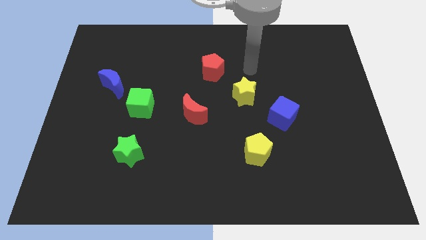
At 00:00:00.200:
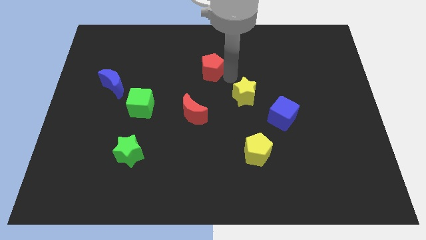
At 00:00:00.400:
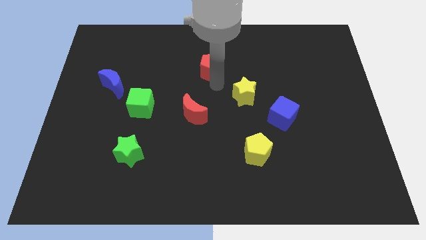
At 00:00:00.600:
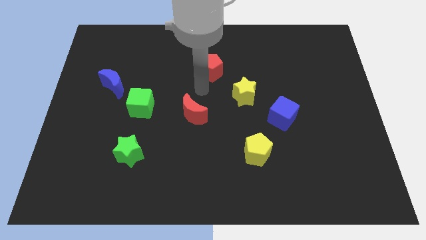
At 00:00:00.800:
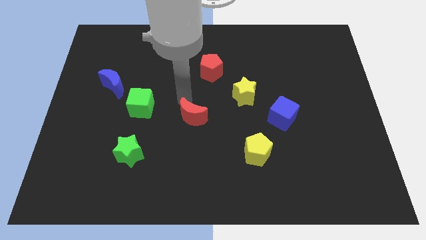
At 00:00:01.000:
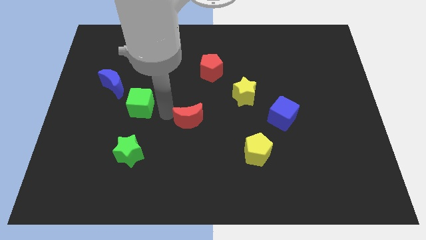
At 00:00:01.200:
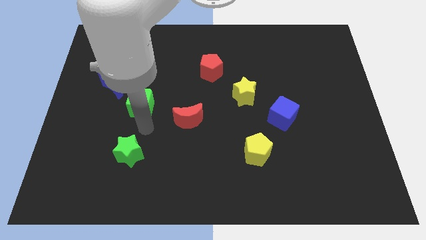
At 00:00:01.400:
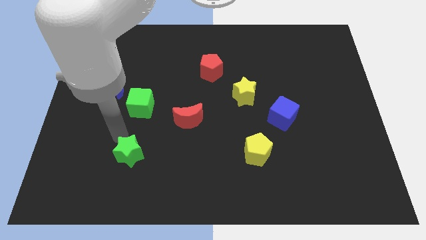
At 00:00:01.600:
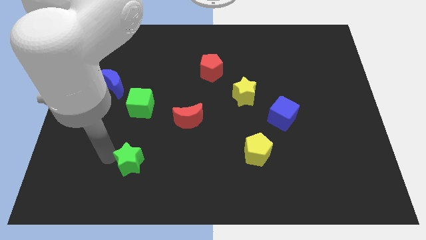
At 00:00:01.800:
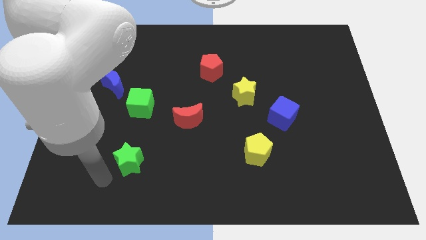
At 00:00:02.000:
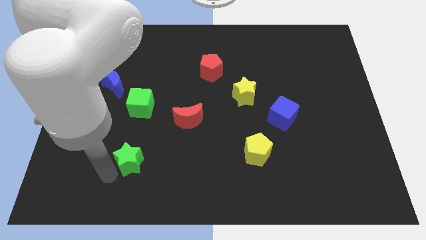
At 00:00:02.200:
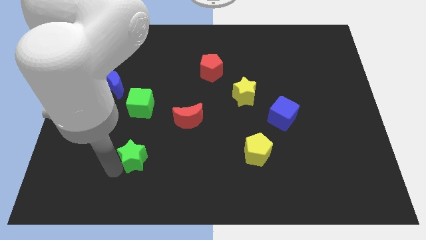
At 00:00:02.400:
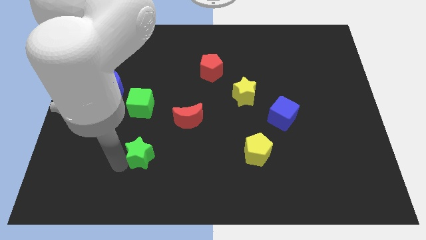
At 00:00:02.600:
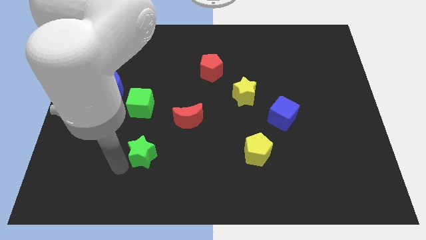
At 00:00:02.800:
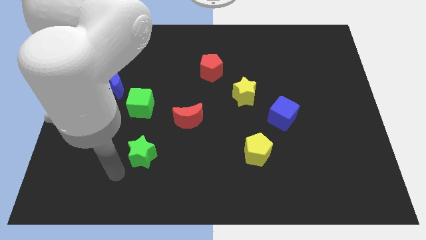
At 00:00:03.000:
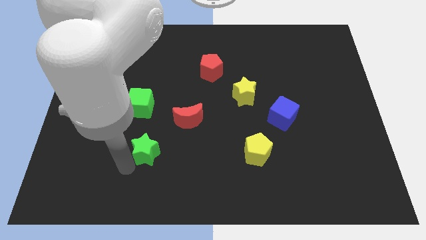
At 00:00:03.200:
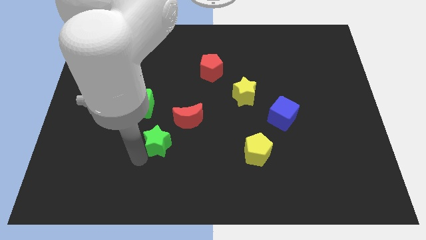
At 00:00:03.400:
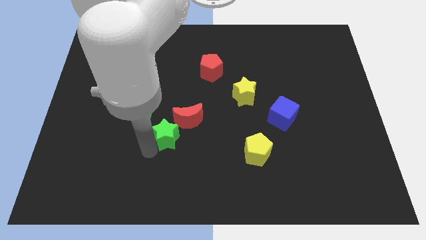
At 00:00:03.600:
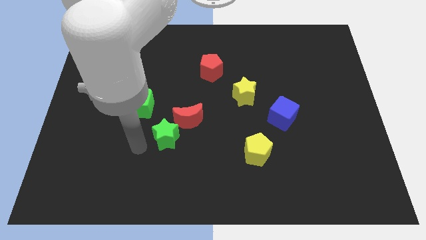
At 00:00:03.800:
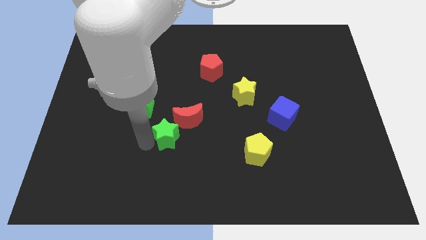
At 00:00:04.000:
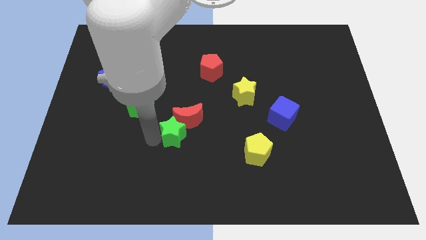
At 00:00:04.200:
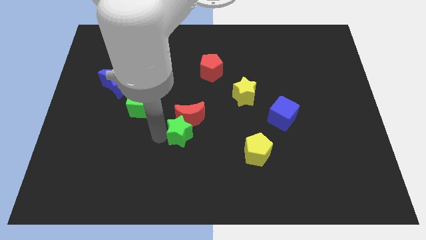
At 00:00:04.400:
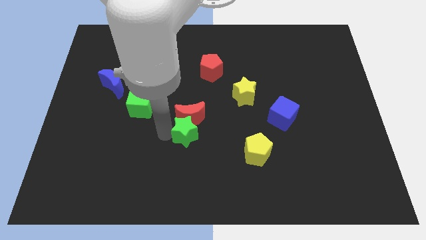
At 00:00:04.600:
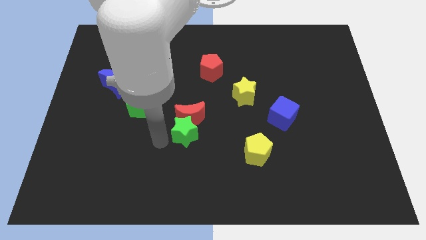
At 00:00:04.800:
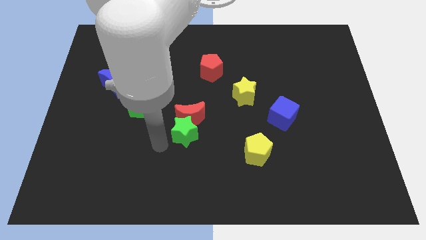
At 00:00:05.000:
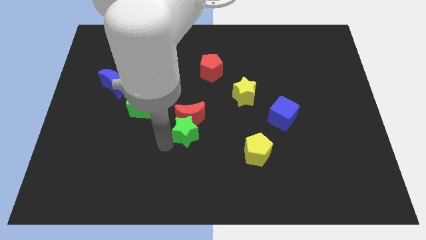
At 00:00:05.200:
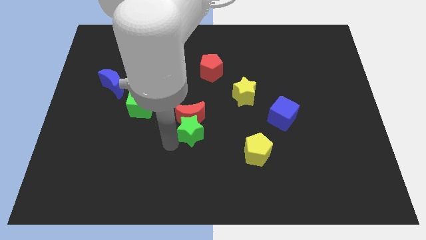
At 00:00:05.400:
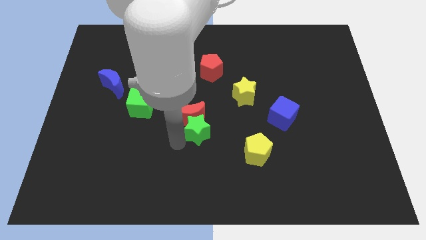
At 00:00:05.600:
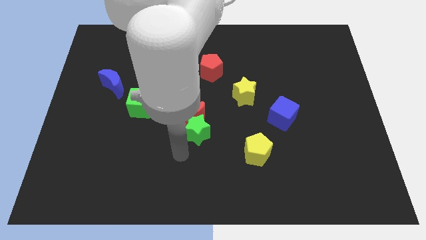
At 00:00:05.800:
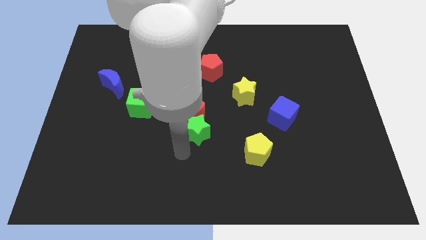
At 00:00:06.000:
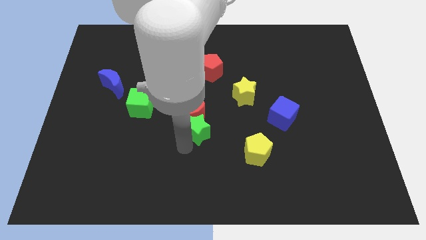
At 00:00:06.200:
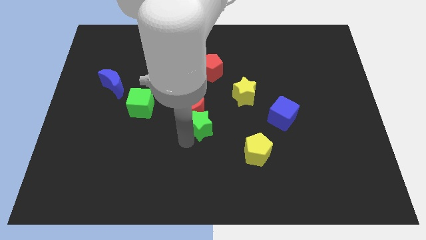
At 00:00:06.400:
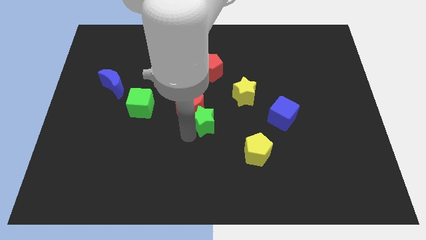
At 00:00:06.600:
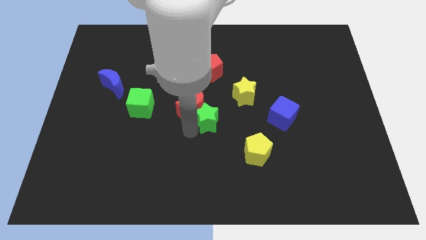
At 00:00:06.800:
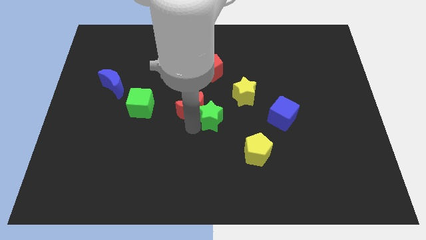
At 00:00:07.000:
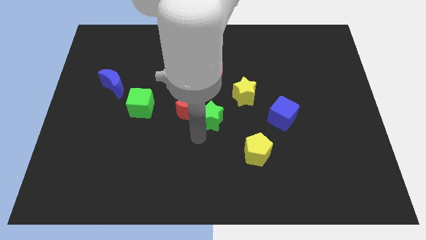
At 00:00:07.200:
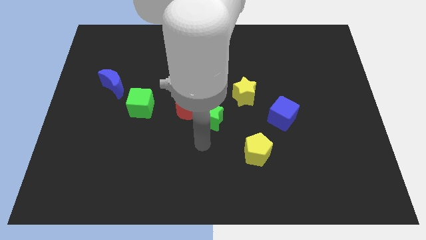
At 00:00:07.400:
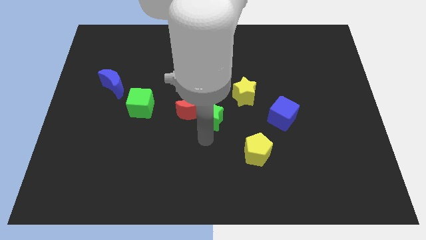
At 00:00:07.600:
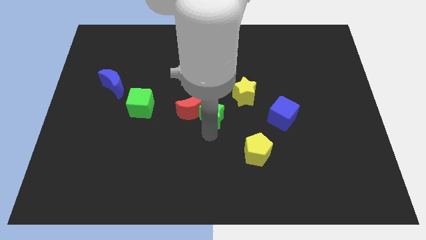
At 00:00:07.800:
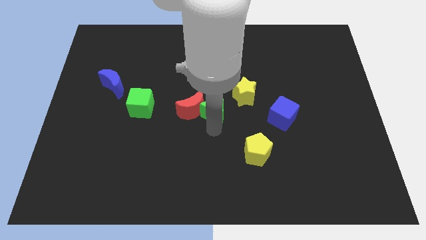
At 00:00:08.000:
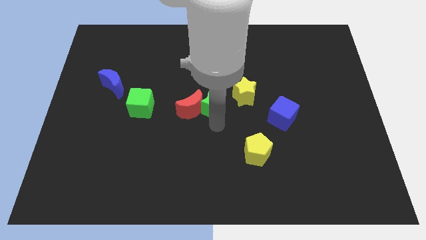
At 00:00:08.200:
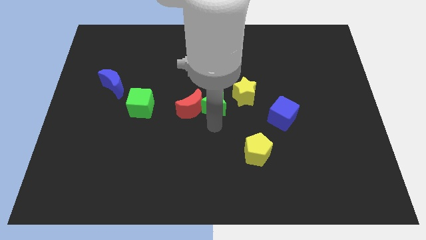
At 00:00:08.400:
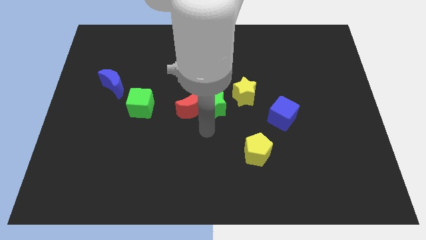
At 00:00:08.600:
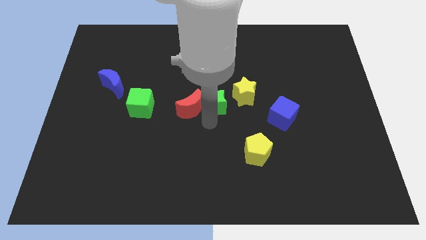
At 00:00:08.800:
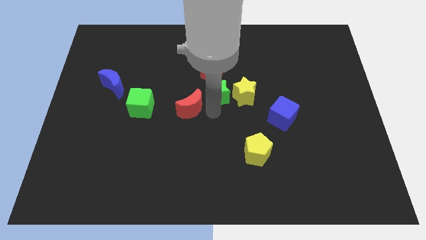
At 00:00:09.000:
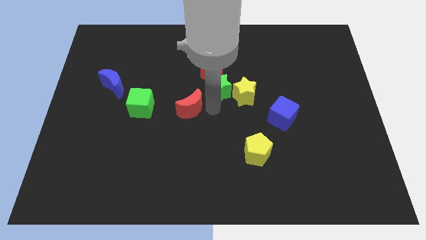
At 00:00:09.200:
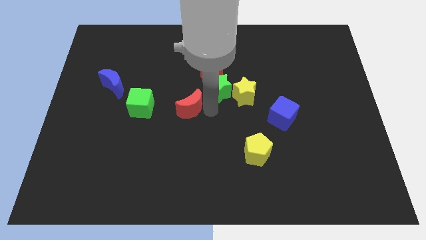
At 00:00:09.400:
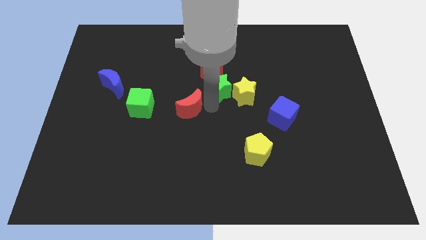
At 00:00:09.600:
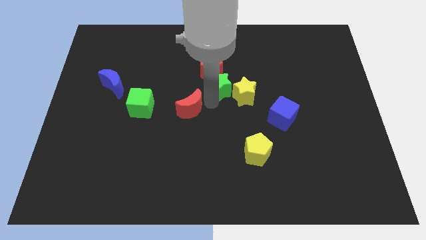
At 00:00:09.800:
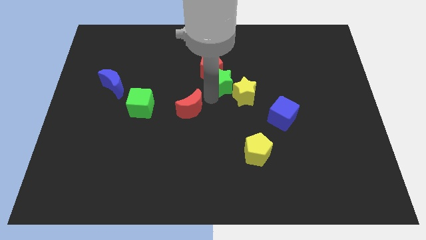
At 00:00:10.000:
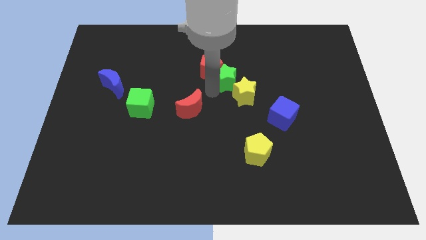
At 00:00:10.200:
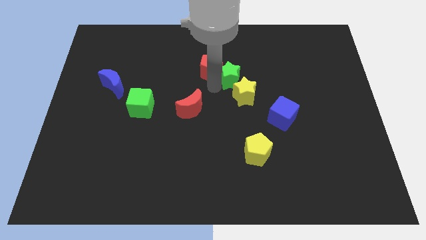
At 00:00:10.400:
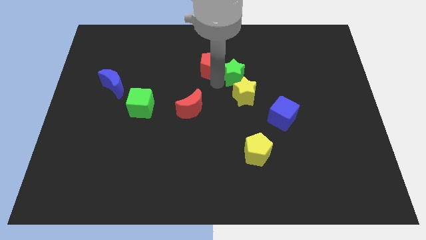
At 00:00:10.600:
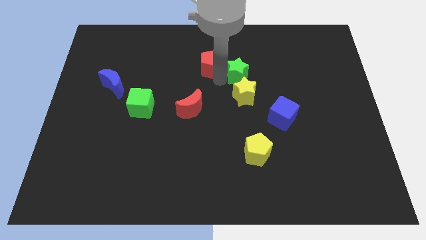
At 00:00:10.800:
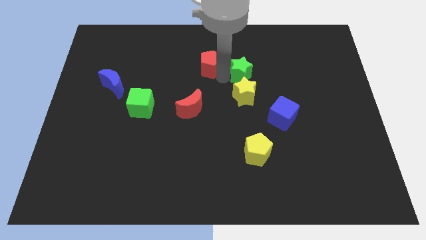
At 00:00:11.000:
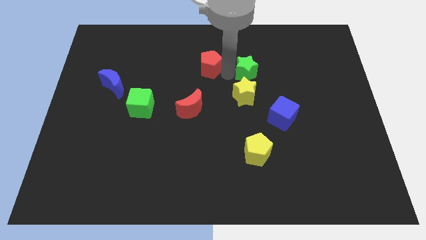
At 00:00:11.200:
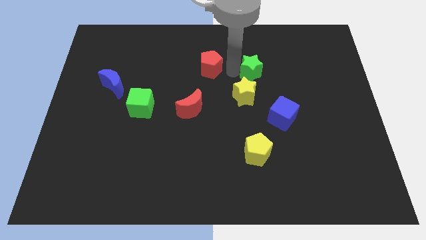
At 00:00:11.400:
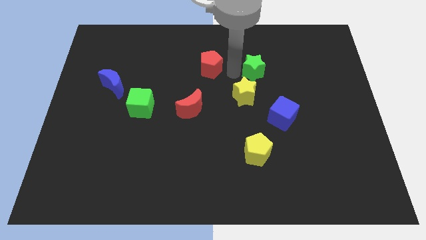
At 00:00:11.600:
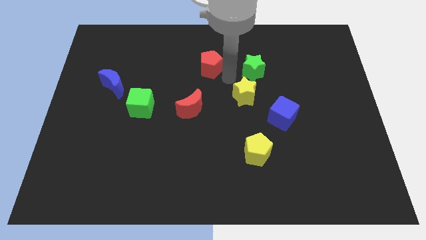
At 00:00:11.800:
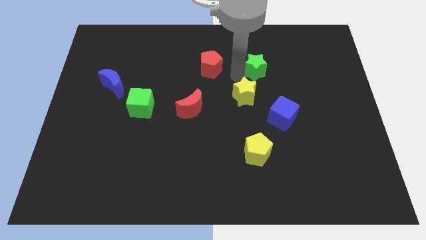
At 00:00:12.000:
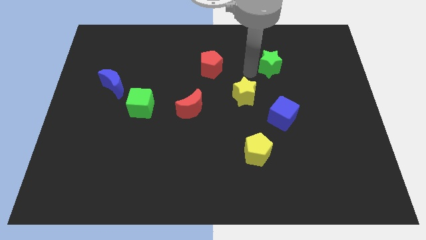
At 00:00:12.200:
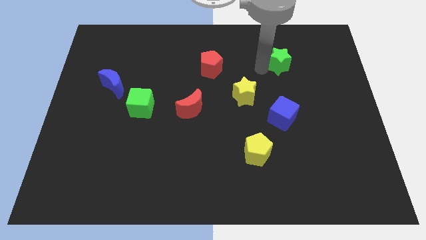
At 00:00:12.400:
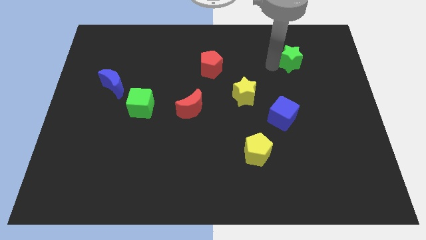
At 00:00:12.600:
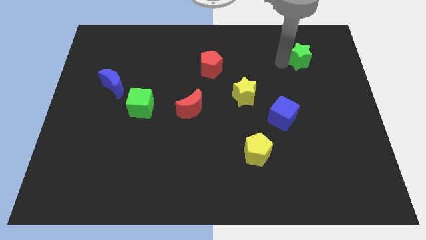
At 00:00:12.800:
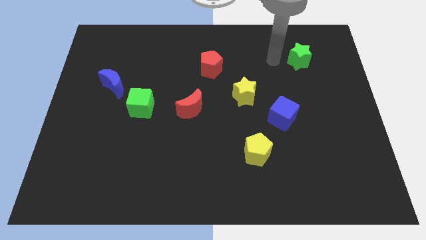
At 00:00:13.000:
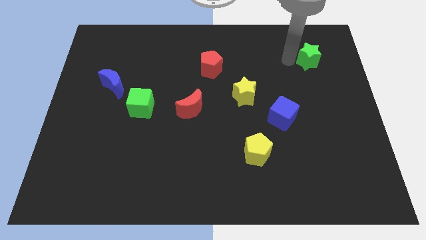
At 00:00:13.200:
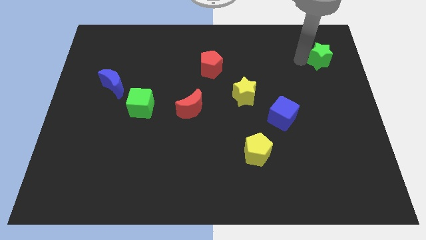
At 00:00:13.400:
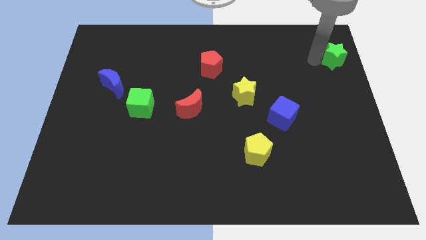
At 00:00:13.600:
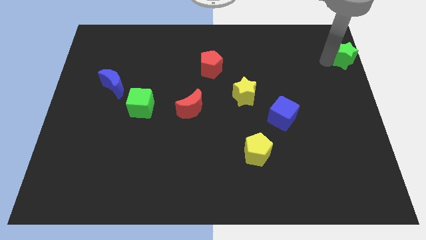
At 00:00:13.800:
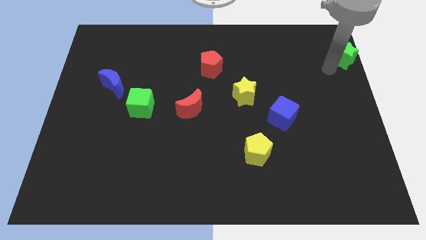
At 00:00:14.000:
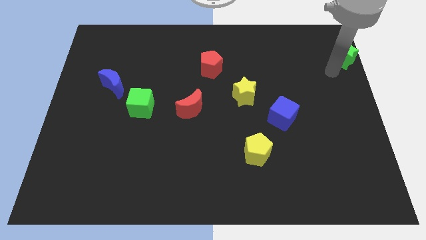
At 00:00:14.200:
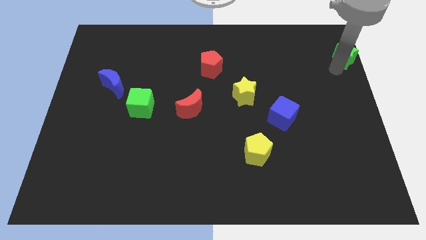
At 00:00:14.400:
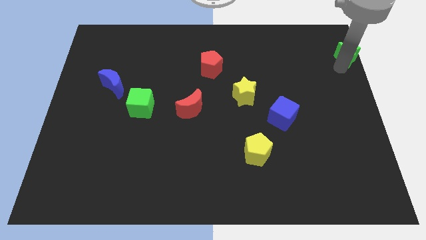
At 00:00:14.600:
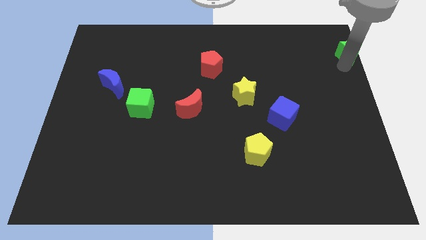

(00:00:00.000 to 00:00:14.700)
slide the green star to the top right corner
